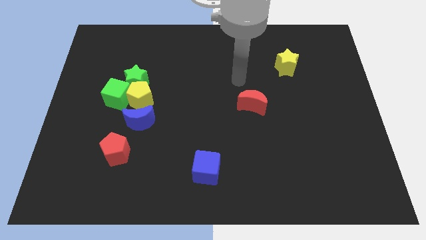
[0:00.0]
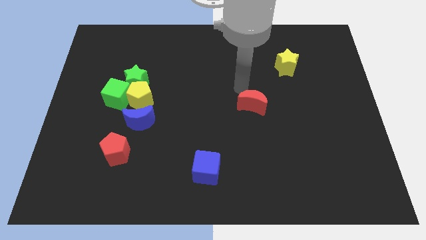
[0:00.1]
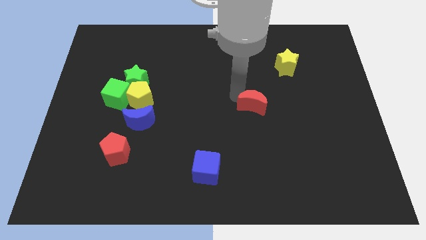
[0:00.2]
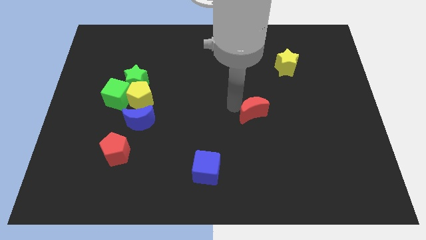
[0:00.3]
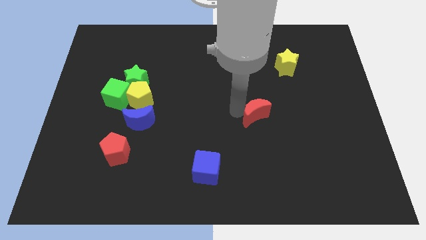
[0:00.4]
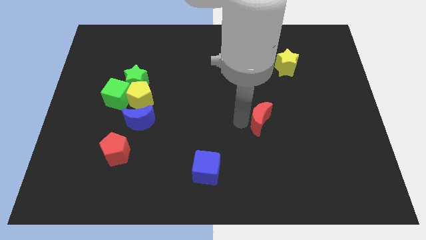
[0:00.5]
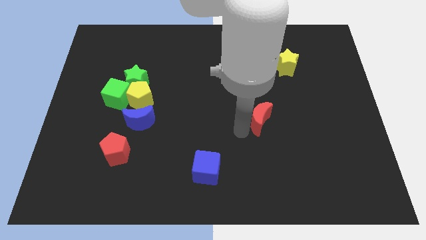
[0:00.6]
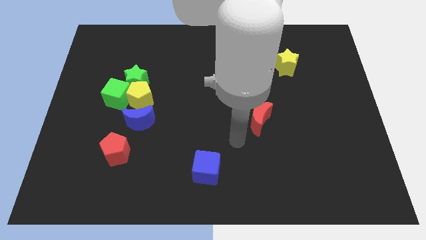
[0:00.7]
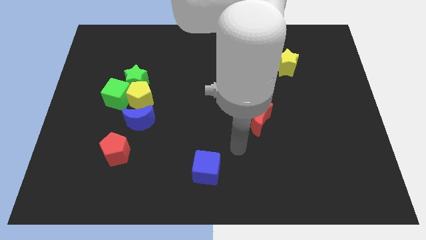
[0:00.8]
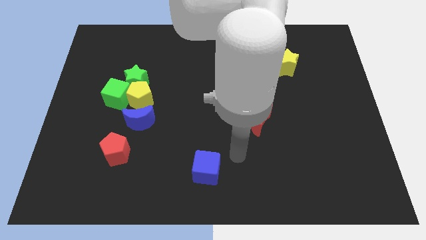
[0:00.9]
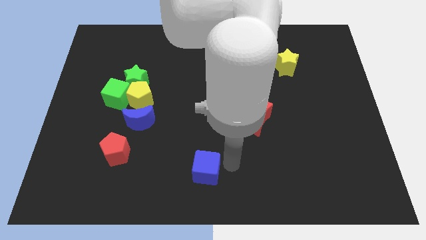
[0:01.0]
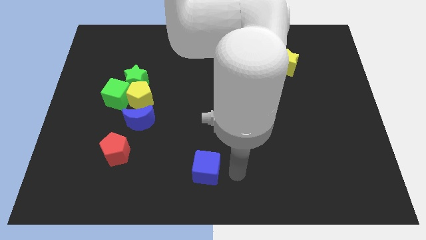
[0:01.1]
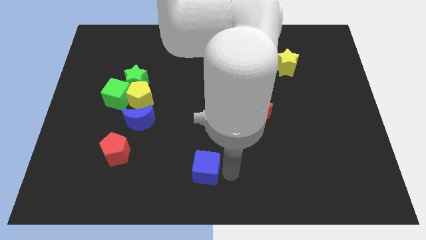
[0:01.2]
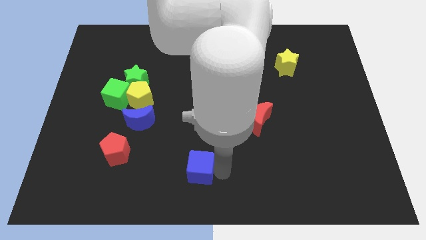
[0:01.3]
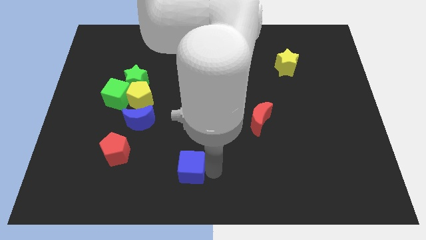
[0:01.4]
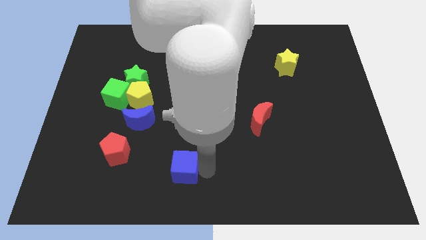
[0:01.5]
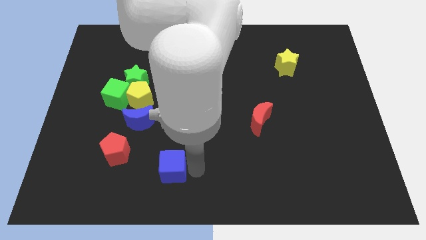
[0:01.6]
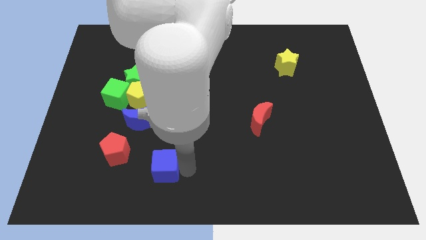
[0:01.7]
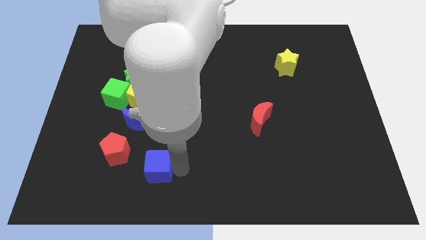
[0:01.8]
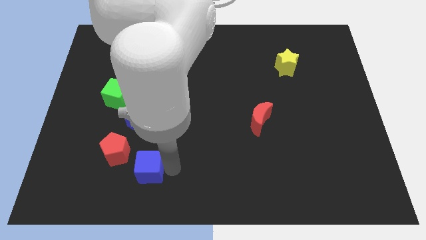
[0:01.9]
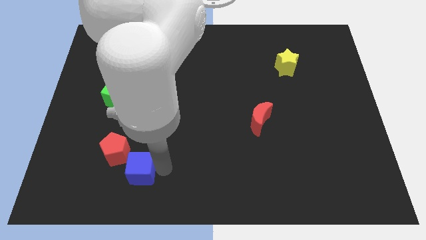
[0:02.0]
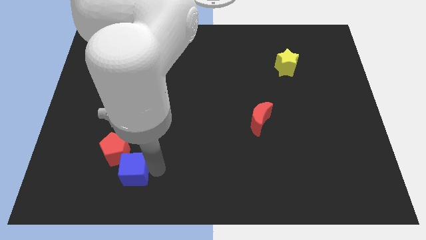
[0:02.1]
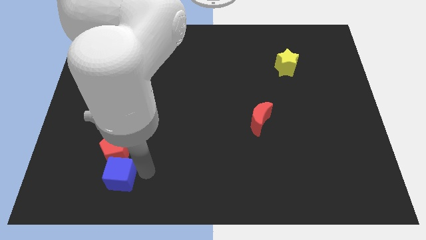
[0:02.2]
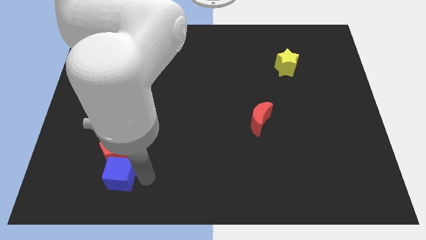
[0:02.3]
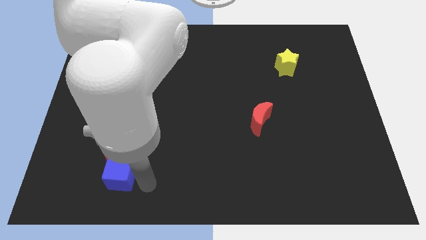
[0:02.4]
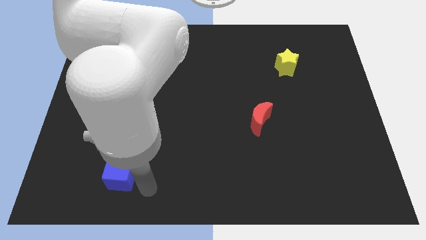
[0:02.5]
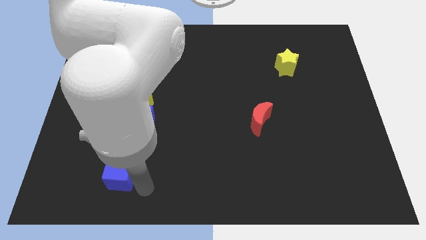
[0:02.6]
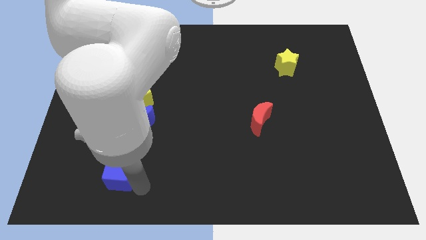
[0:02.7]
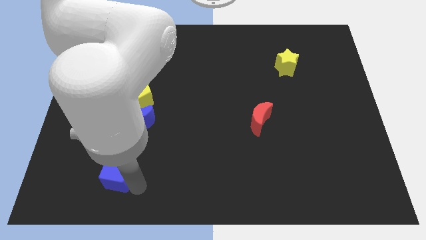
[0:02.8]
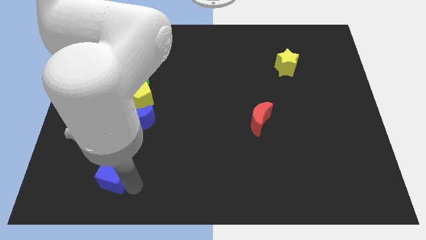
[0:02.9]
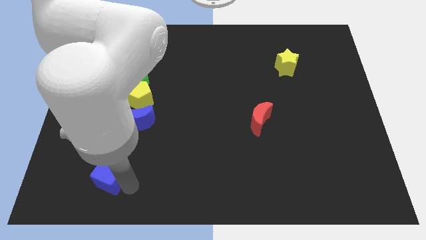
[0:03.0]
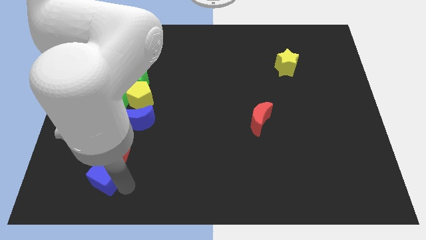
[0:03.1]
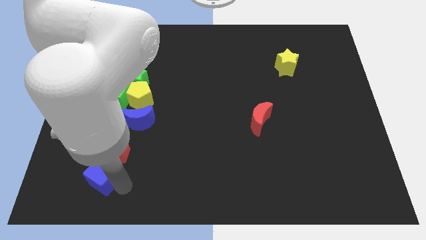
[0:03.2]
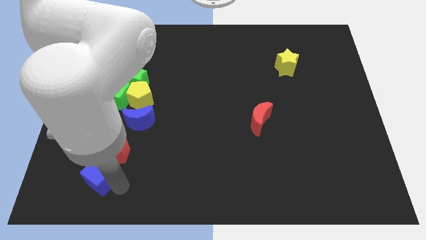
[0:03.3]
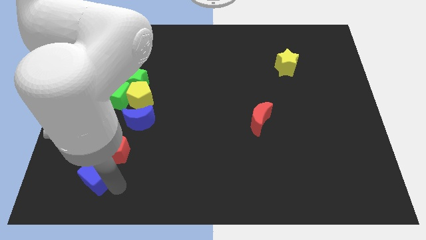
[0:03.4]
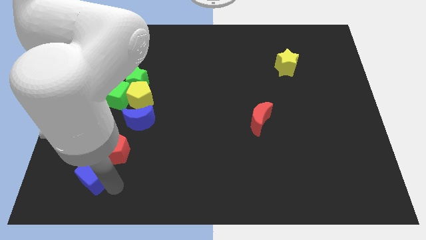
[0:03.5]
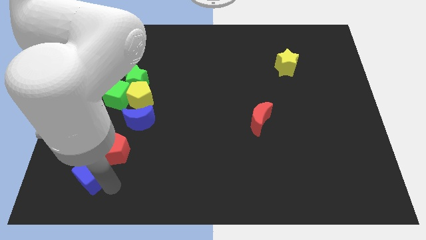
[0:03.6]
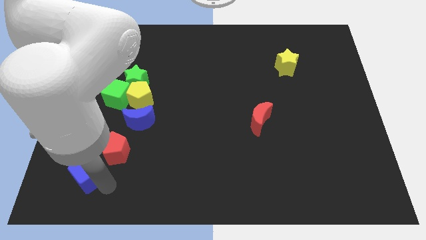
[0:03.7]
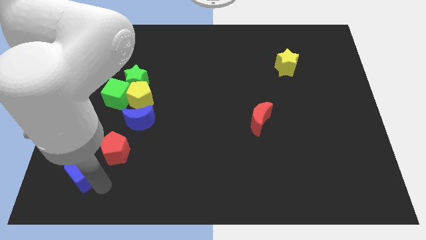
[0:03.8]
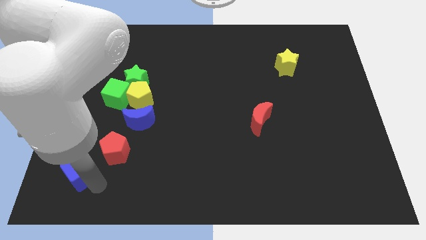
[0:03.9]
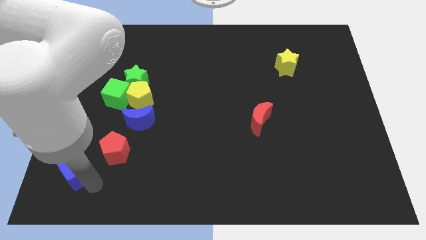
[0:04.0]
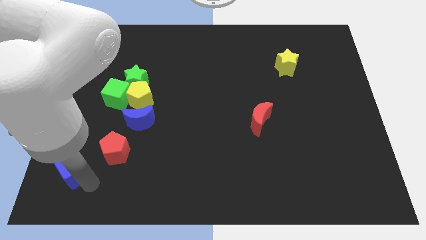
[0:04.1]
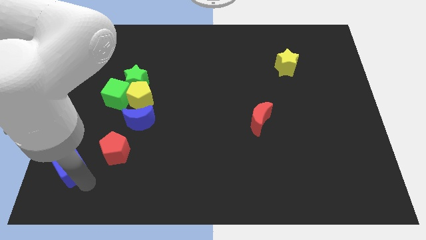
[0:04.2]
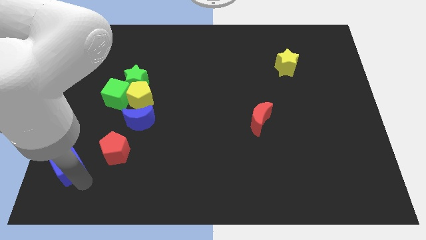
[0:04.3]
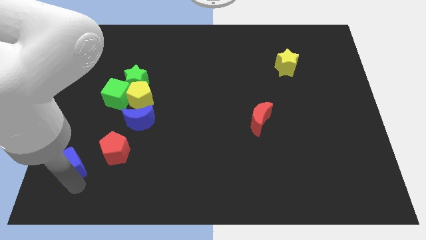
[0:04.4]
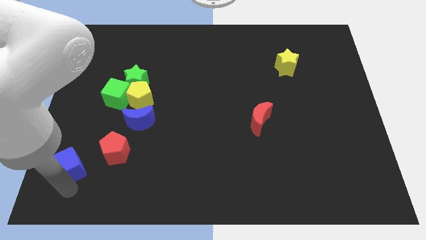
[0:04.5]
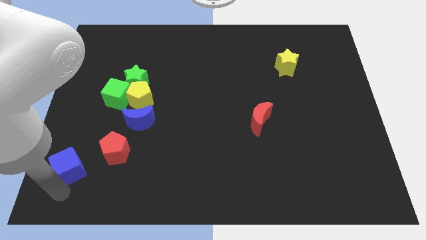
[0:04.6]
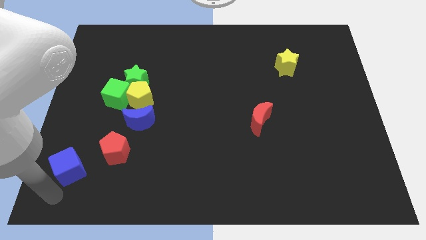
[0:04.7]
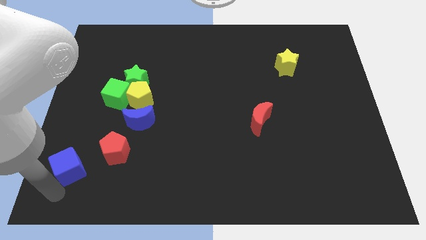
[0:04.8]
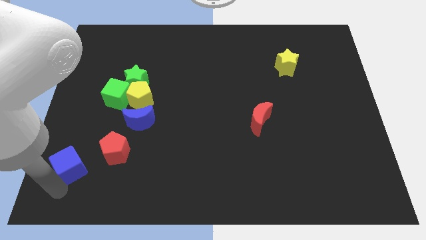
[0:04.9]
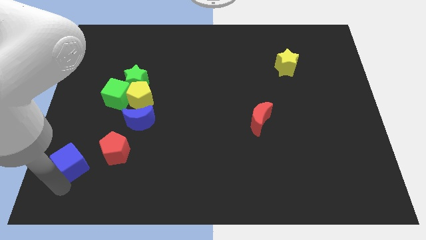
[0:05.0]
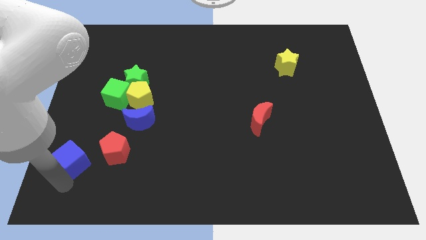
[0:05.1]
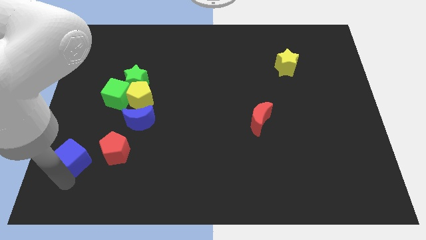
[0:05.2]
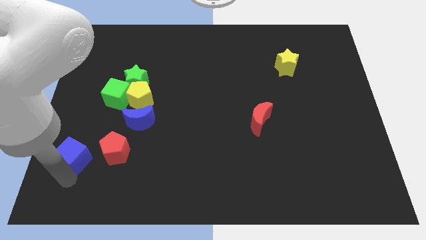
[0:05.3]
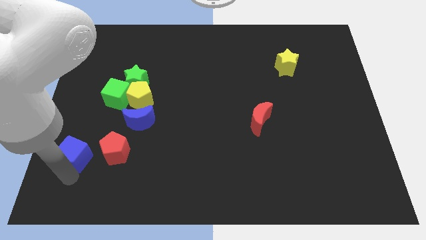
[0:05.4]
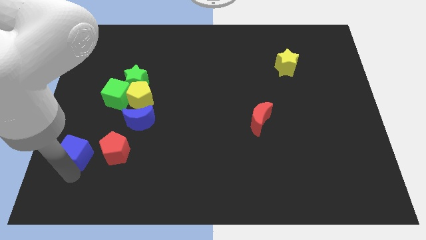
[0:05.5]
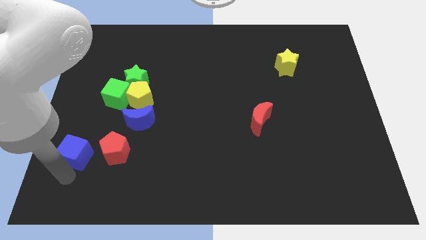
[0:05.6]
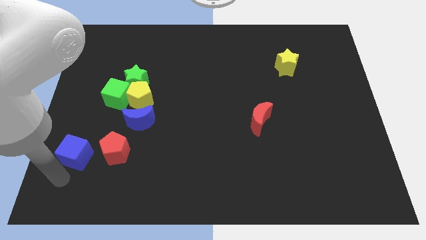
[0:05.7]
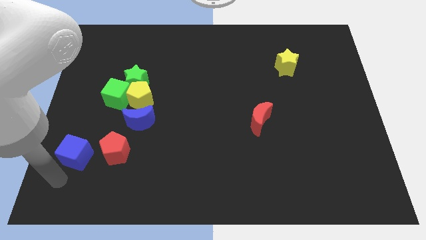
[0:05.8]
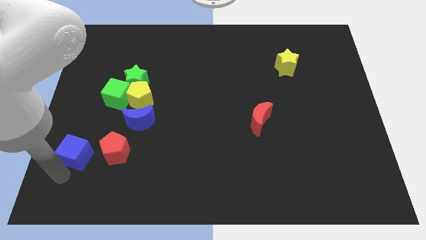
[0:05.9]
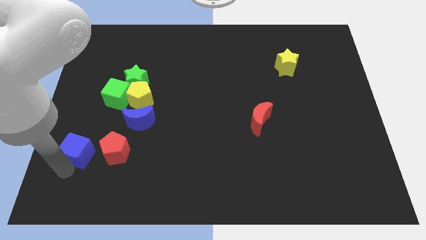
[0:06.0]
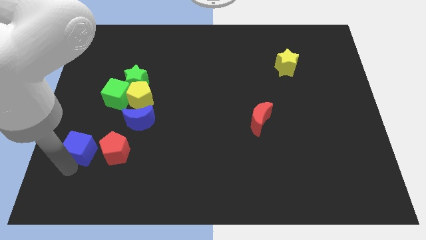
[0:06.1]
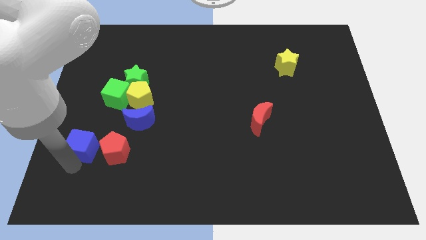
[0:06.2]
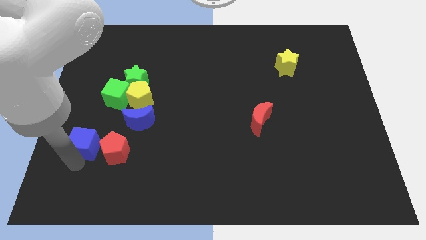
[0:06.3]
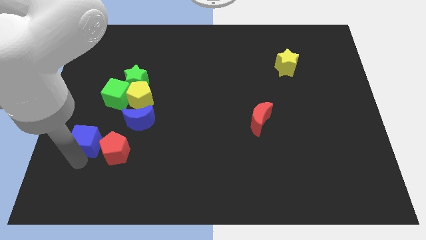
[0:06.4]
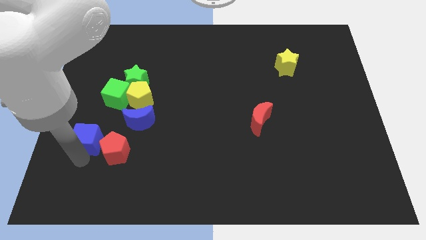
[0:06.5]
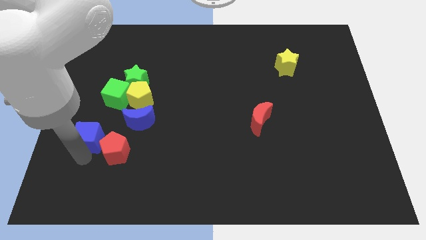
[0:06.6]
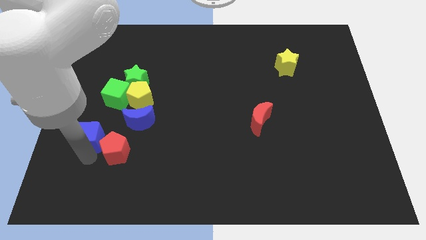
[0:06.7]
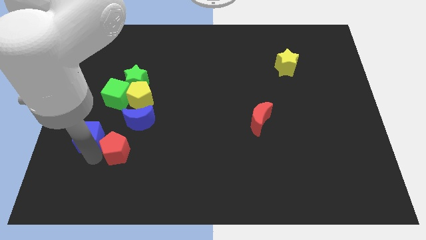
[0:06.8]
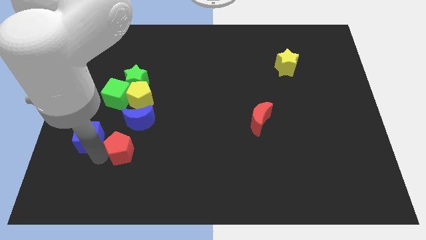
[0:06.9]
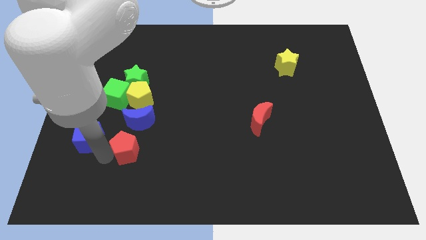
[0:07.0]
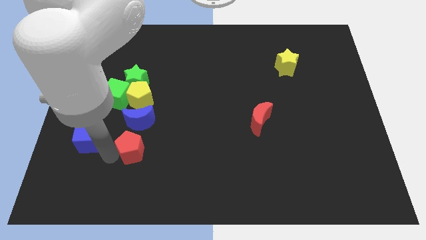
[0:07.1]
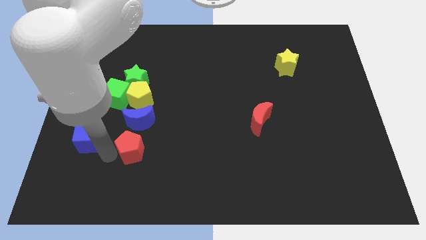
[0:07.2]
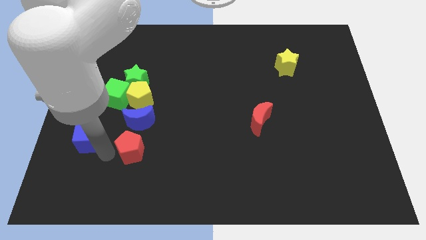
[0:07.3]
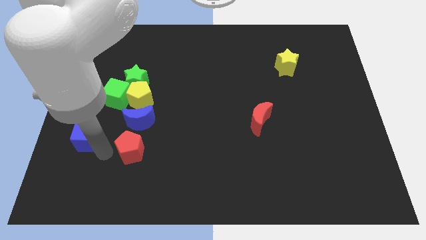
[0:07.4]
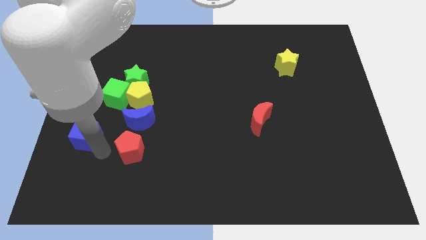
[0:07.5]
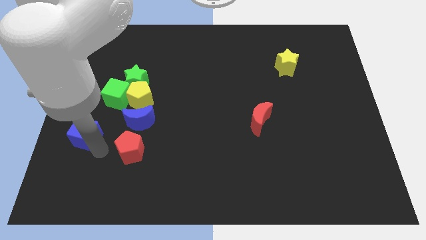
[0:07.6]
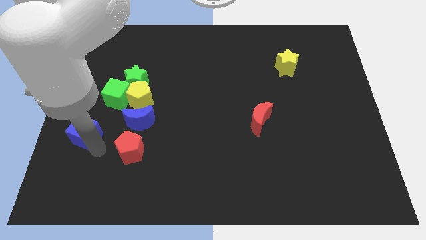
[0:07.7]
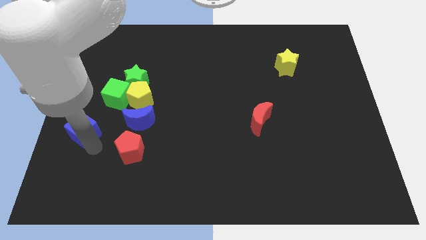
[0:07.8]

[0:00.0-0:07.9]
push the blue cube to the left side
